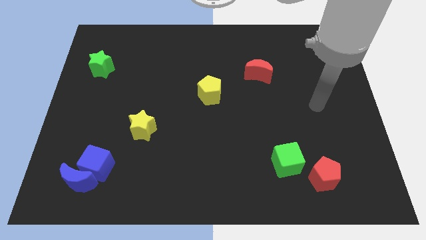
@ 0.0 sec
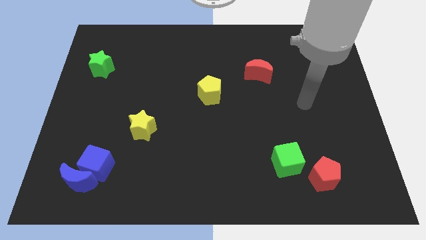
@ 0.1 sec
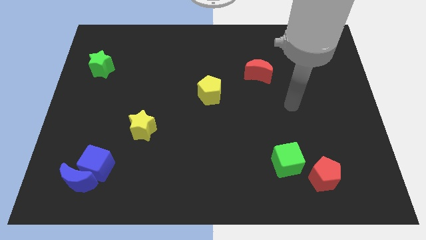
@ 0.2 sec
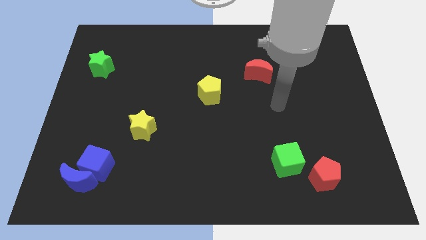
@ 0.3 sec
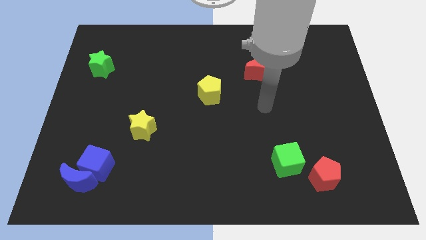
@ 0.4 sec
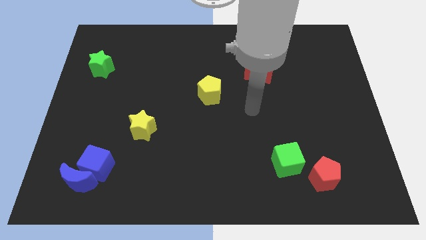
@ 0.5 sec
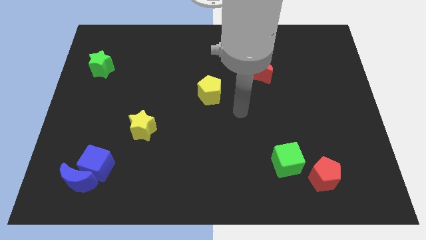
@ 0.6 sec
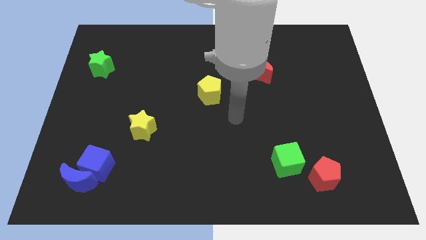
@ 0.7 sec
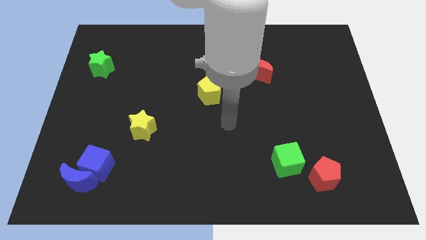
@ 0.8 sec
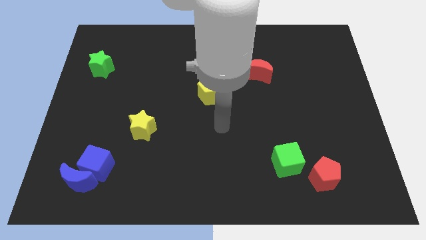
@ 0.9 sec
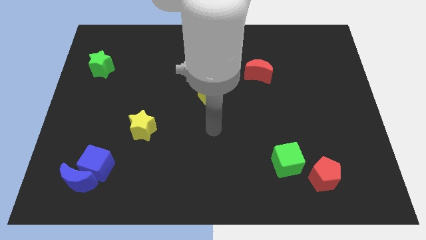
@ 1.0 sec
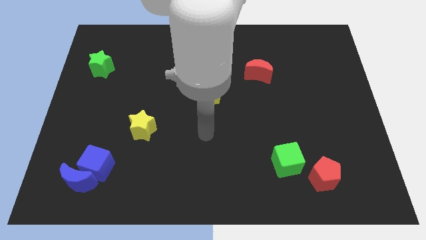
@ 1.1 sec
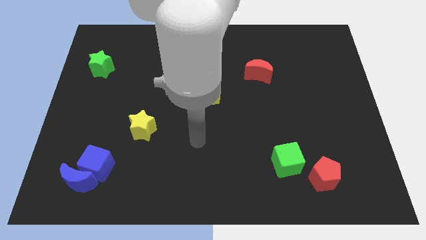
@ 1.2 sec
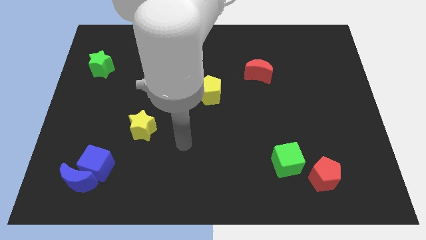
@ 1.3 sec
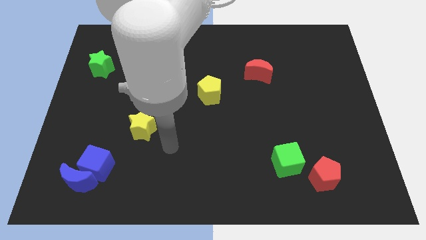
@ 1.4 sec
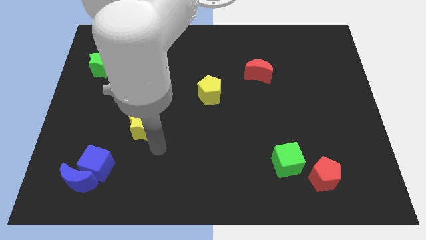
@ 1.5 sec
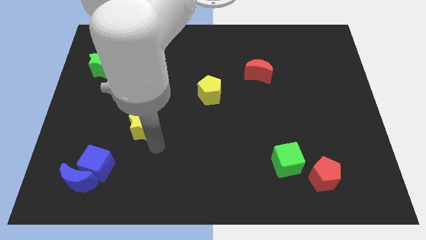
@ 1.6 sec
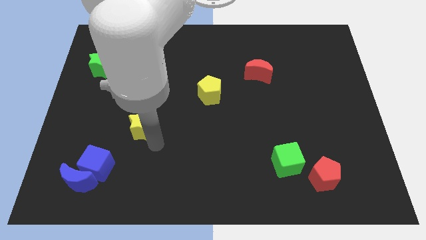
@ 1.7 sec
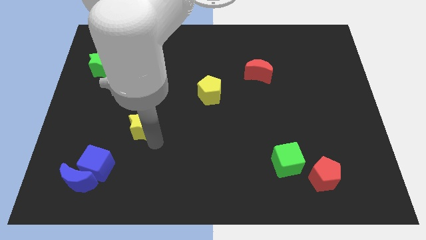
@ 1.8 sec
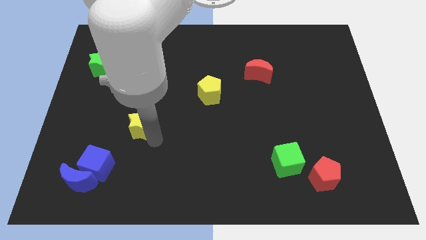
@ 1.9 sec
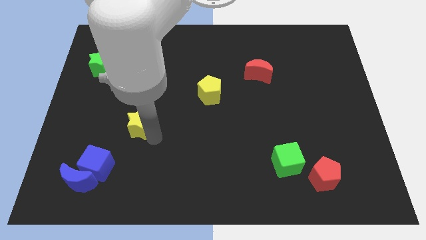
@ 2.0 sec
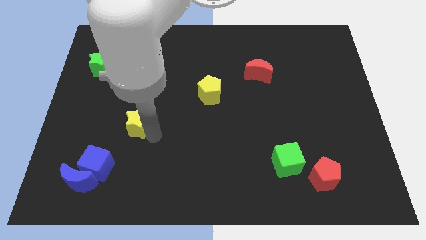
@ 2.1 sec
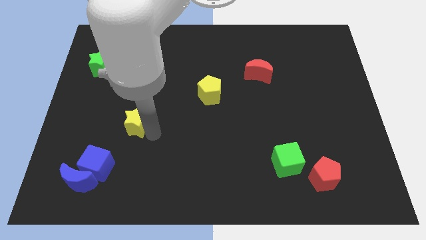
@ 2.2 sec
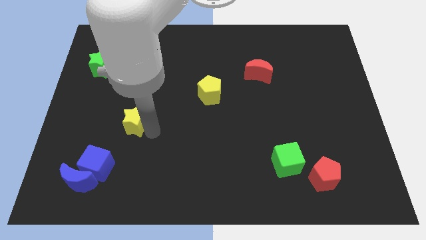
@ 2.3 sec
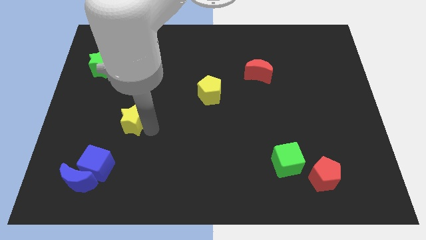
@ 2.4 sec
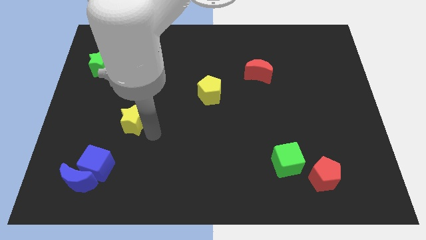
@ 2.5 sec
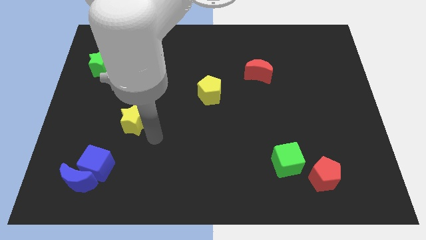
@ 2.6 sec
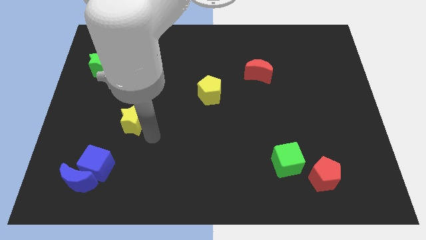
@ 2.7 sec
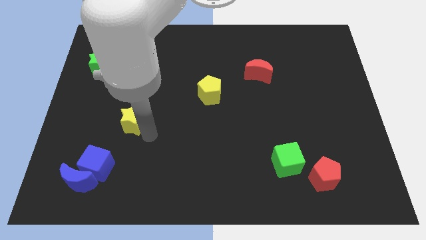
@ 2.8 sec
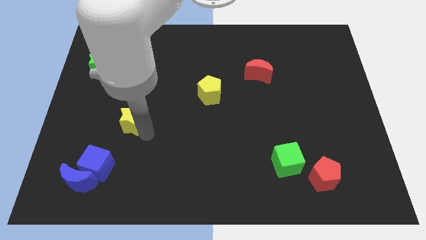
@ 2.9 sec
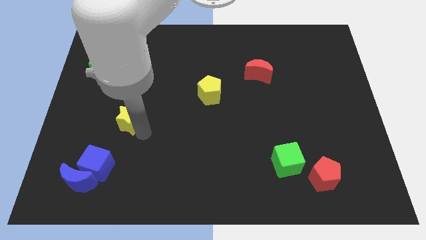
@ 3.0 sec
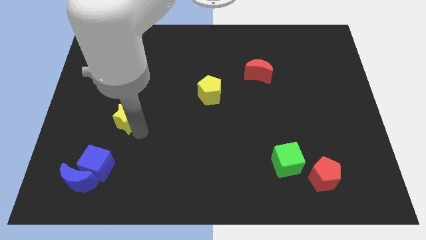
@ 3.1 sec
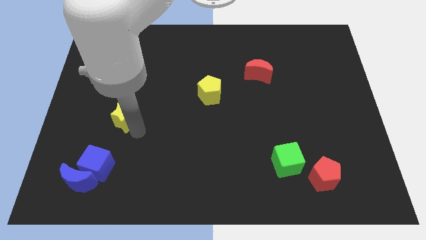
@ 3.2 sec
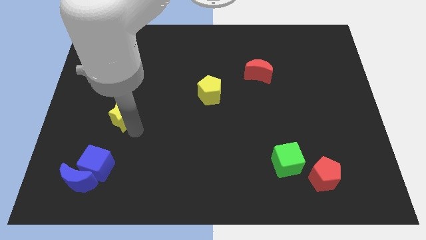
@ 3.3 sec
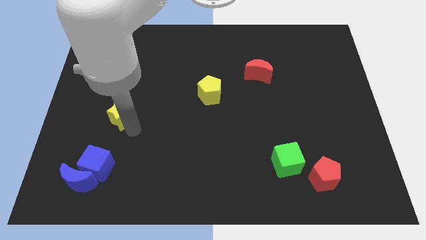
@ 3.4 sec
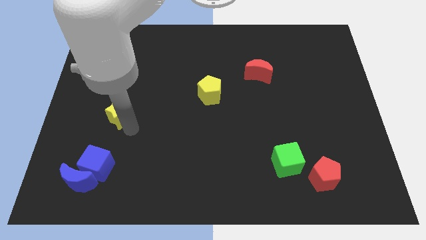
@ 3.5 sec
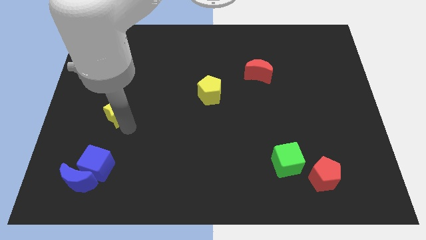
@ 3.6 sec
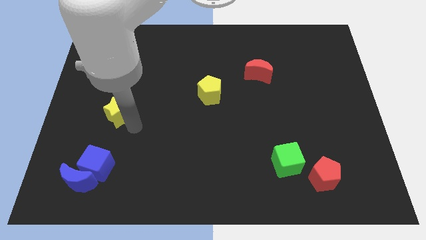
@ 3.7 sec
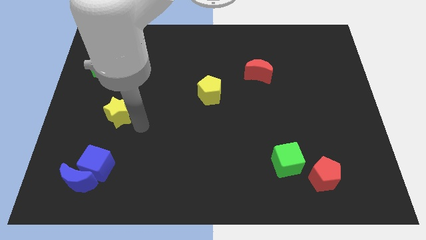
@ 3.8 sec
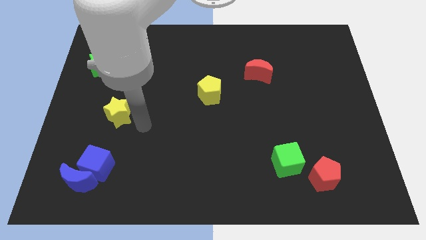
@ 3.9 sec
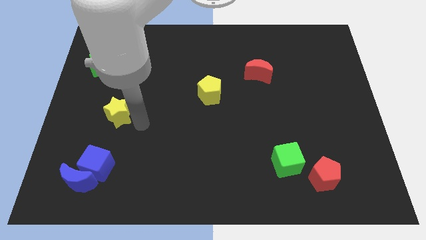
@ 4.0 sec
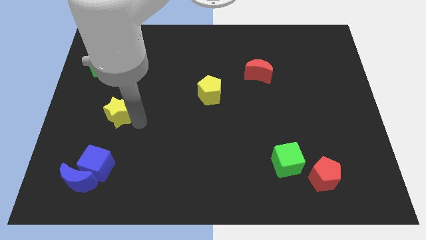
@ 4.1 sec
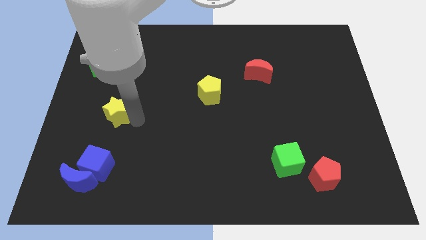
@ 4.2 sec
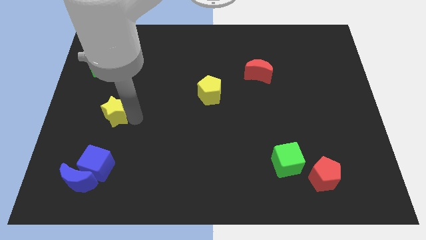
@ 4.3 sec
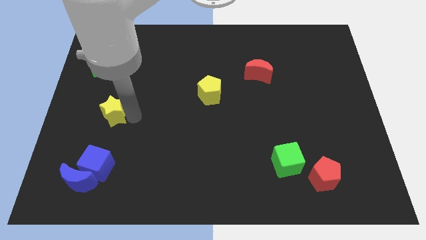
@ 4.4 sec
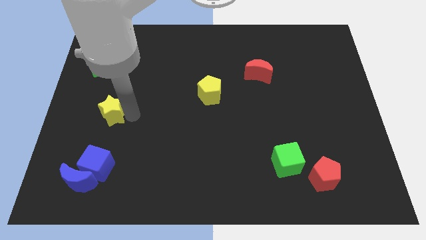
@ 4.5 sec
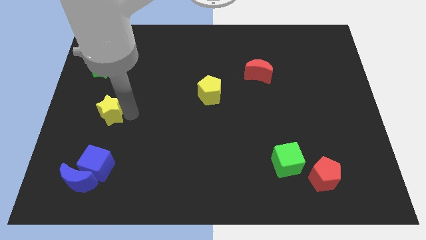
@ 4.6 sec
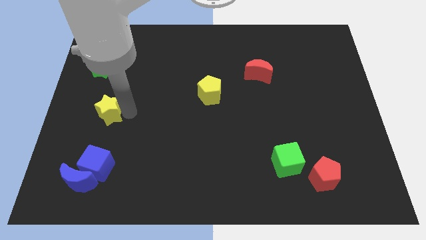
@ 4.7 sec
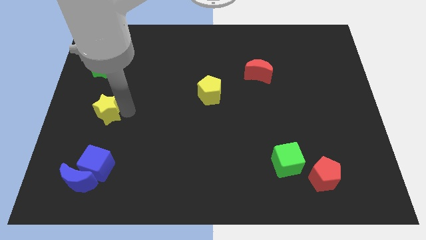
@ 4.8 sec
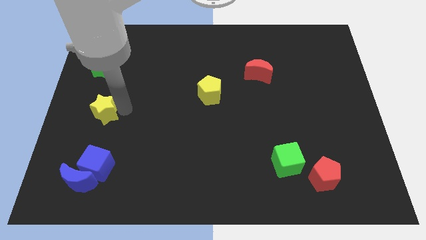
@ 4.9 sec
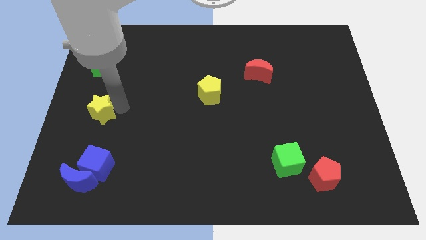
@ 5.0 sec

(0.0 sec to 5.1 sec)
move the yellow star to the center left

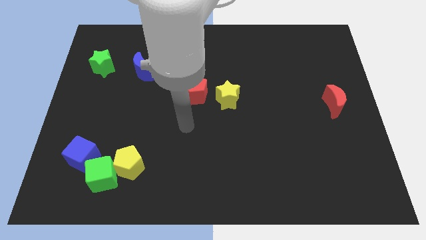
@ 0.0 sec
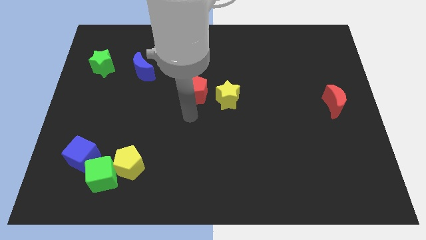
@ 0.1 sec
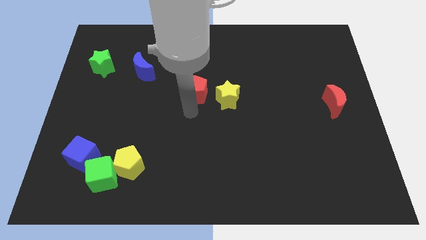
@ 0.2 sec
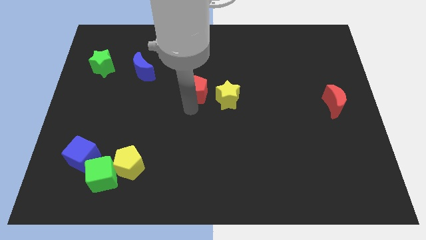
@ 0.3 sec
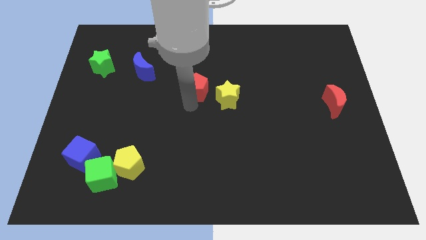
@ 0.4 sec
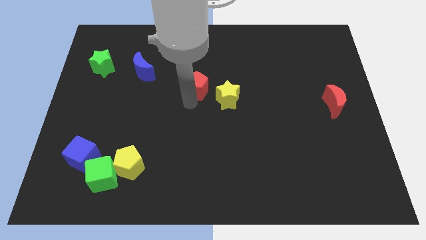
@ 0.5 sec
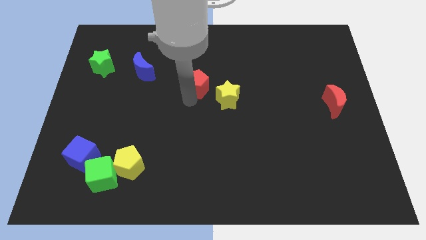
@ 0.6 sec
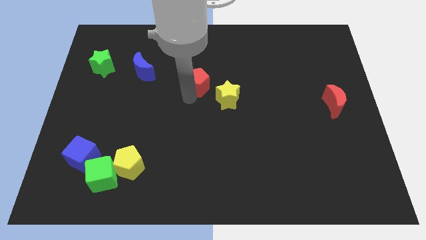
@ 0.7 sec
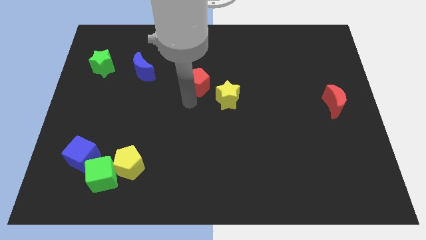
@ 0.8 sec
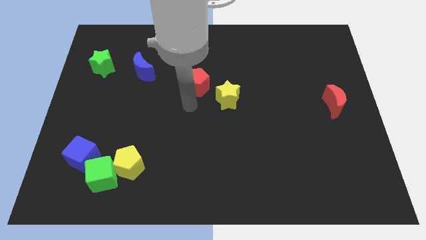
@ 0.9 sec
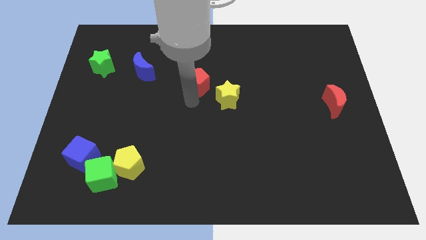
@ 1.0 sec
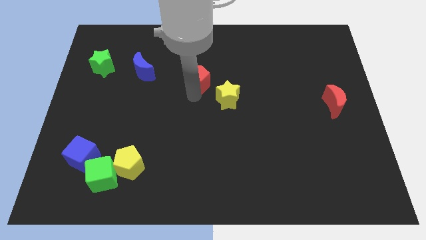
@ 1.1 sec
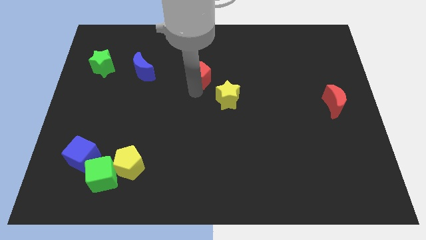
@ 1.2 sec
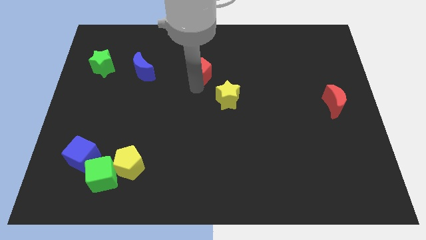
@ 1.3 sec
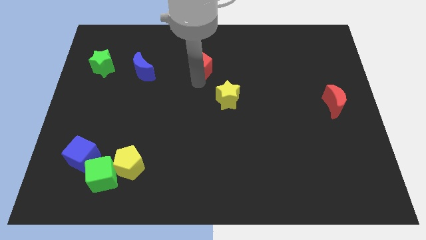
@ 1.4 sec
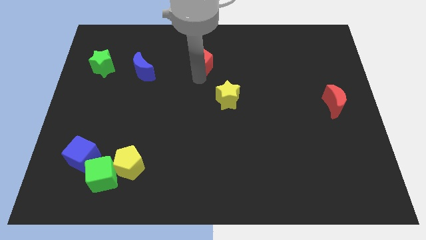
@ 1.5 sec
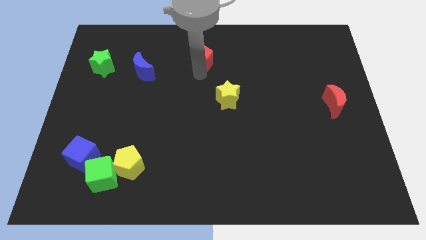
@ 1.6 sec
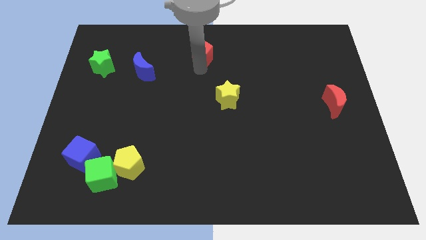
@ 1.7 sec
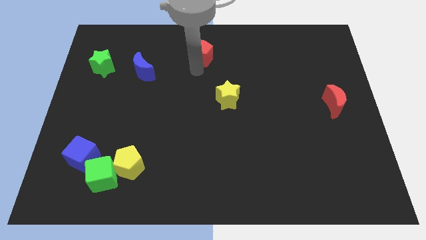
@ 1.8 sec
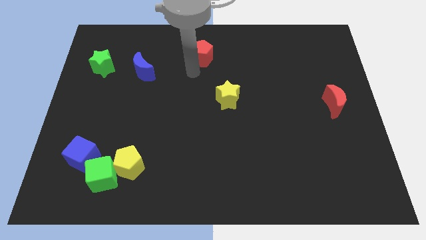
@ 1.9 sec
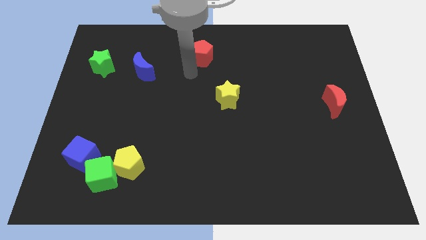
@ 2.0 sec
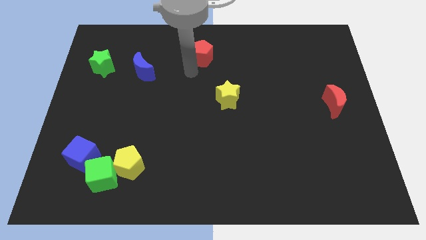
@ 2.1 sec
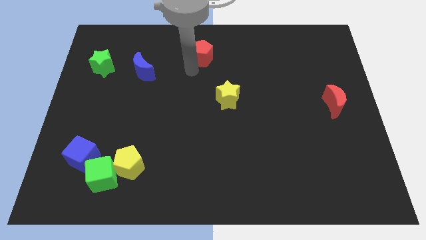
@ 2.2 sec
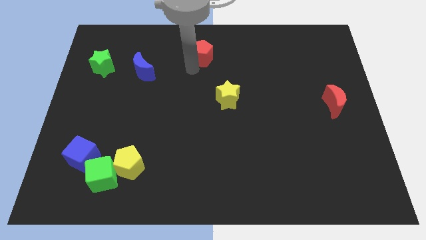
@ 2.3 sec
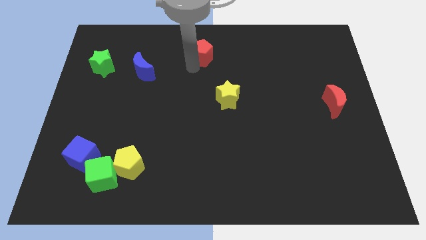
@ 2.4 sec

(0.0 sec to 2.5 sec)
move the red pentagon to the towards your base
